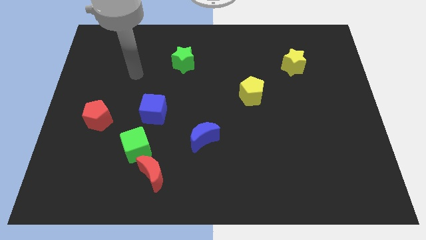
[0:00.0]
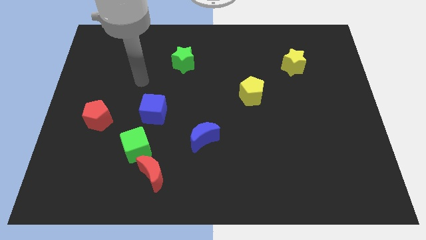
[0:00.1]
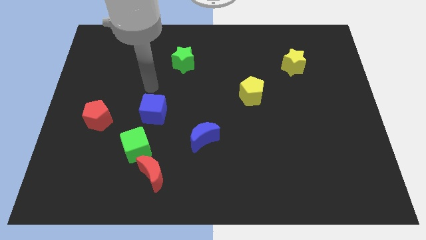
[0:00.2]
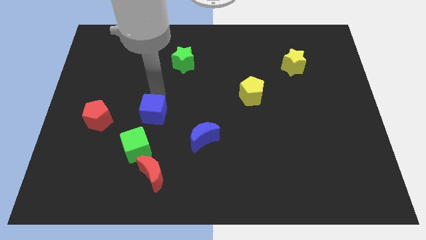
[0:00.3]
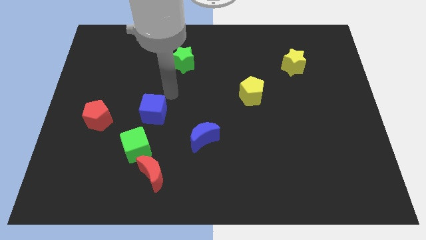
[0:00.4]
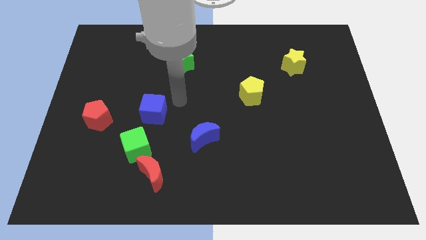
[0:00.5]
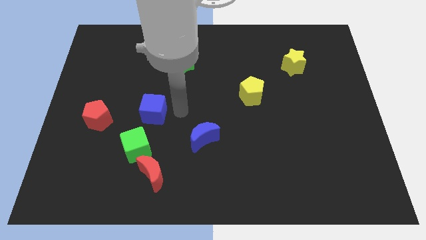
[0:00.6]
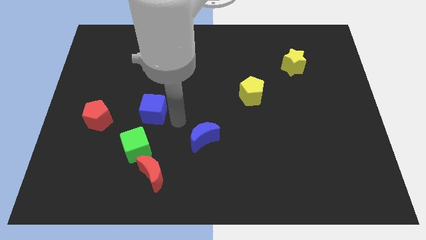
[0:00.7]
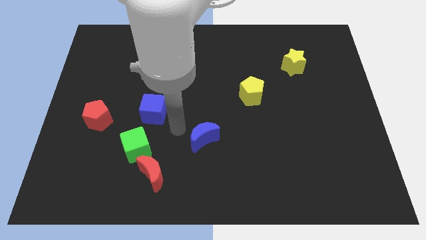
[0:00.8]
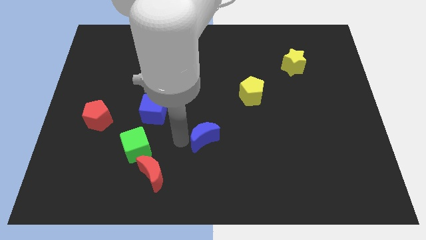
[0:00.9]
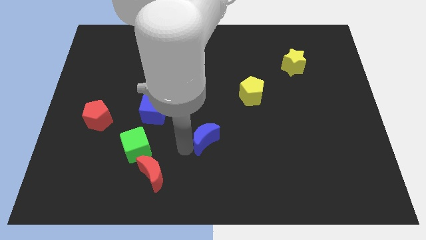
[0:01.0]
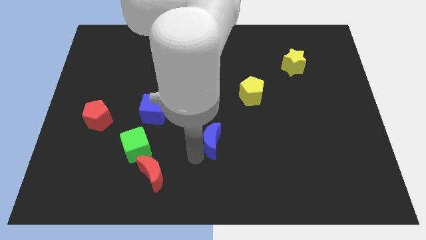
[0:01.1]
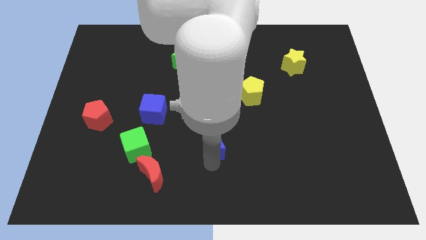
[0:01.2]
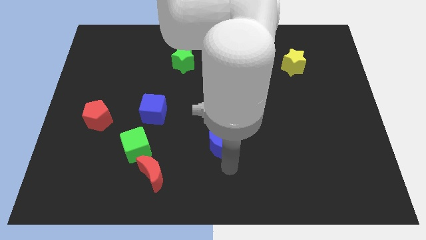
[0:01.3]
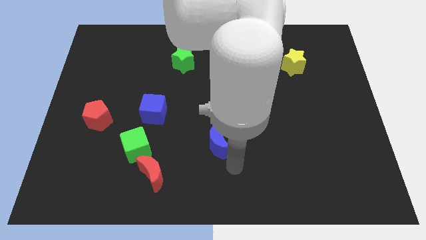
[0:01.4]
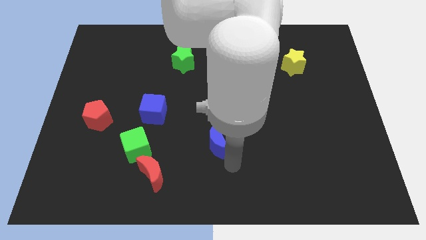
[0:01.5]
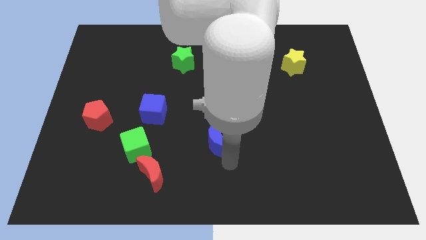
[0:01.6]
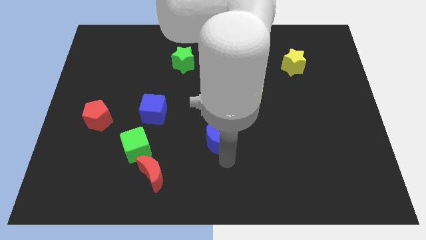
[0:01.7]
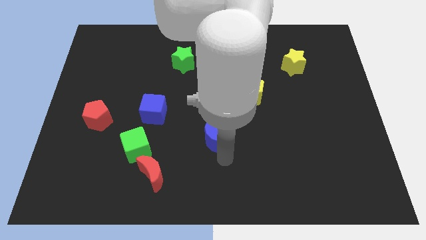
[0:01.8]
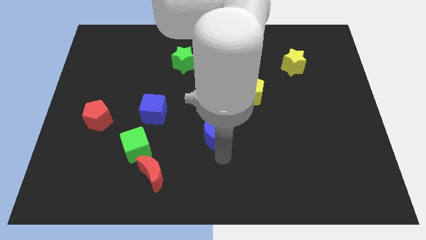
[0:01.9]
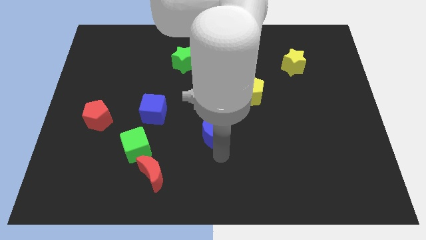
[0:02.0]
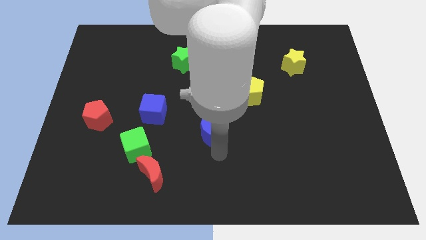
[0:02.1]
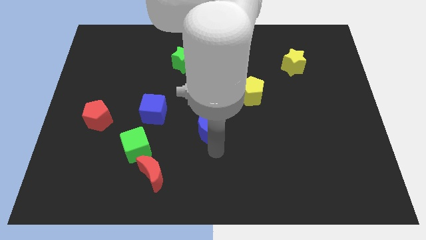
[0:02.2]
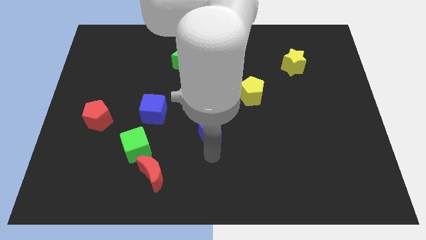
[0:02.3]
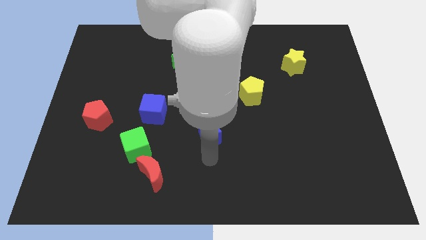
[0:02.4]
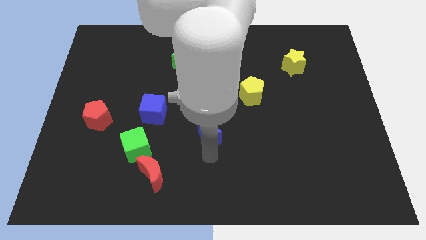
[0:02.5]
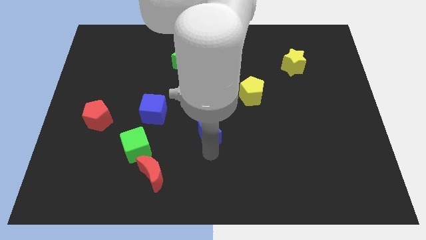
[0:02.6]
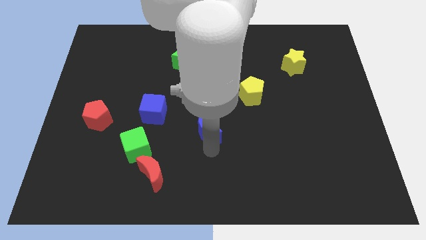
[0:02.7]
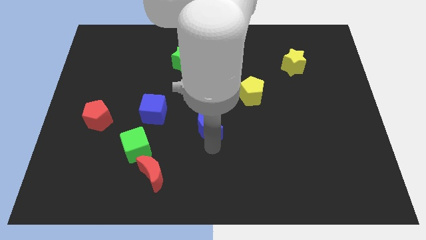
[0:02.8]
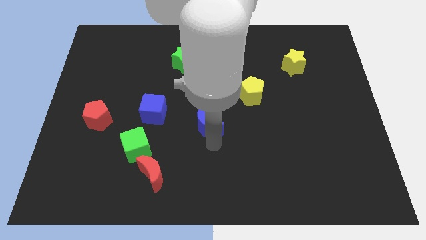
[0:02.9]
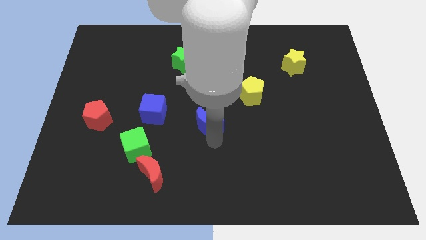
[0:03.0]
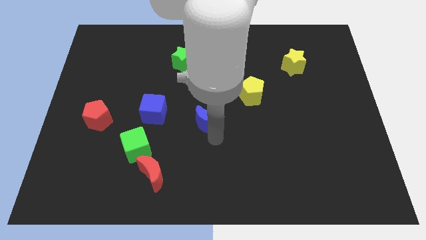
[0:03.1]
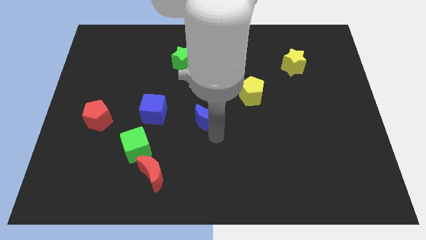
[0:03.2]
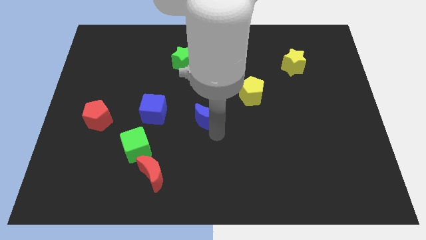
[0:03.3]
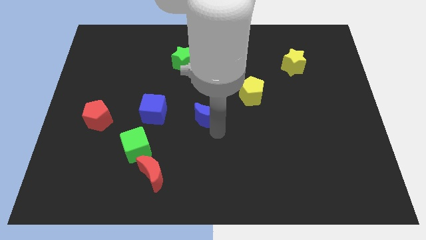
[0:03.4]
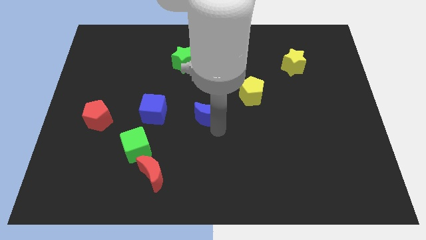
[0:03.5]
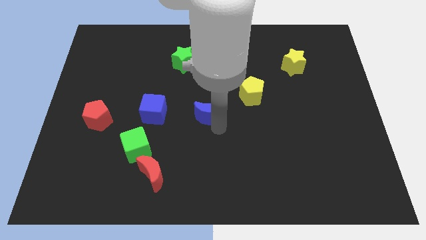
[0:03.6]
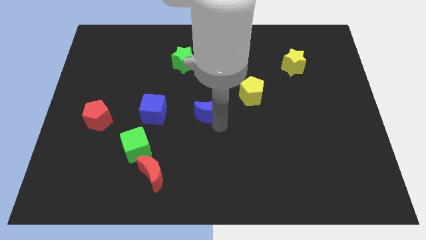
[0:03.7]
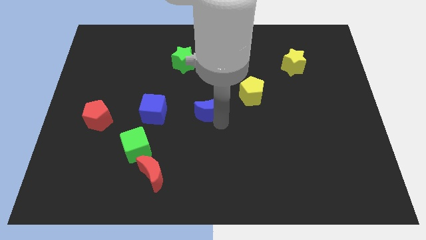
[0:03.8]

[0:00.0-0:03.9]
slide the blue moon a little bit upwards

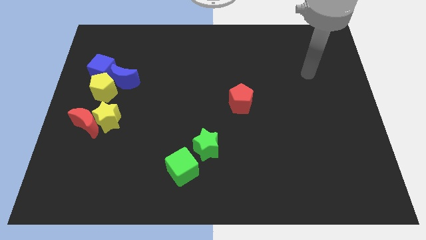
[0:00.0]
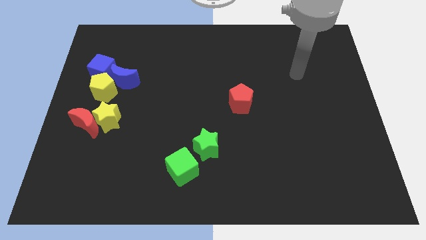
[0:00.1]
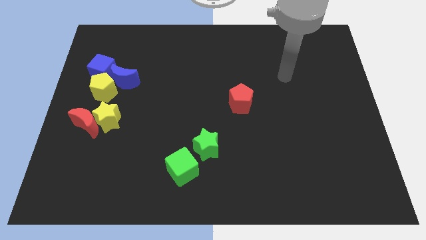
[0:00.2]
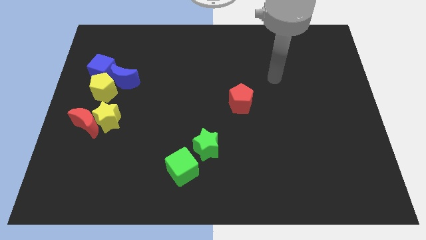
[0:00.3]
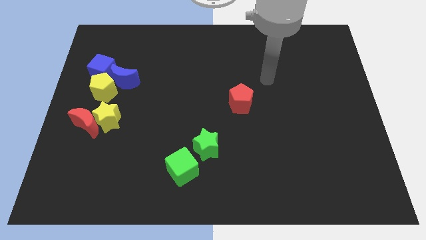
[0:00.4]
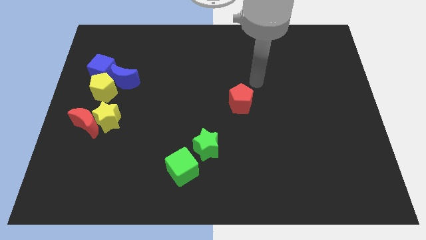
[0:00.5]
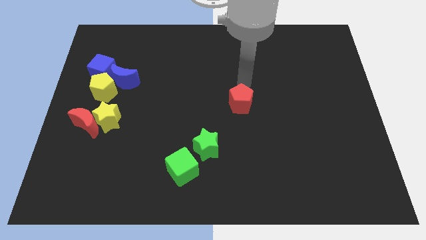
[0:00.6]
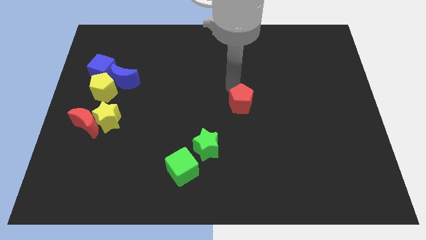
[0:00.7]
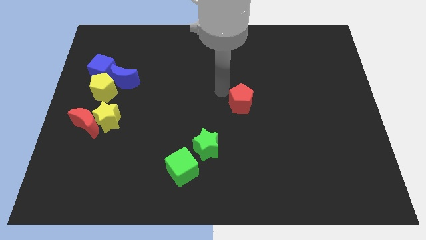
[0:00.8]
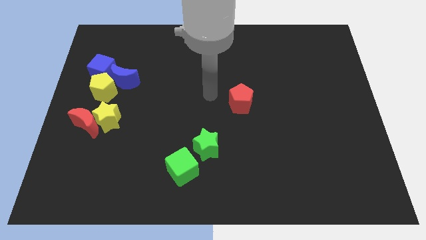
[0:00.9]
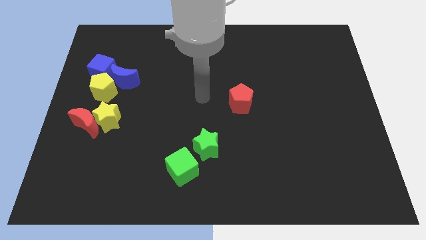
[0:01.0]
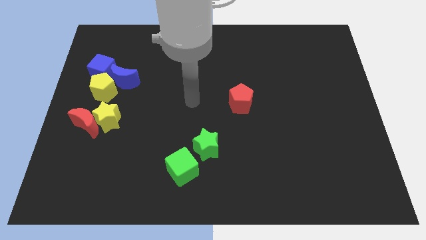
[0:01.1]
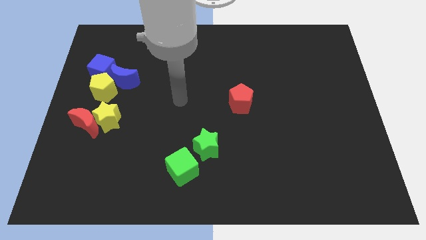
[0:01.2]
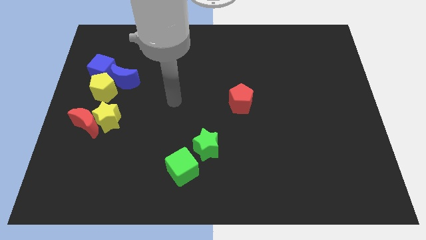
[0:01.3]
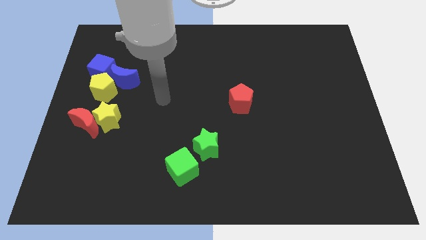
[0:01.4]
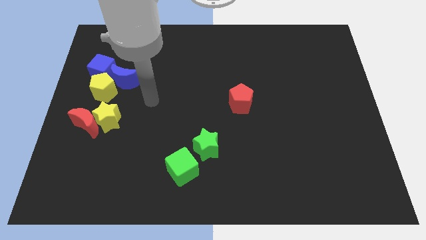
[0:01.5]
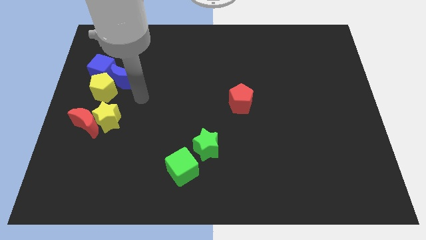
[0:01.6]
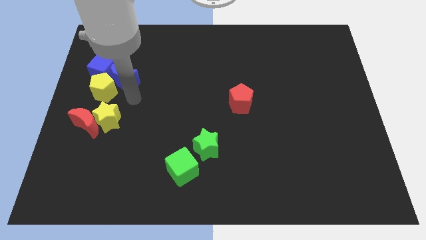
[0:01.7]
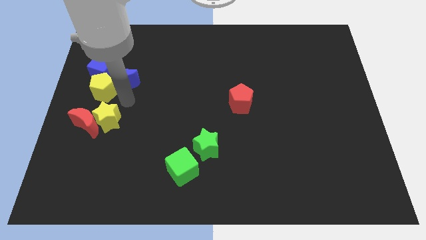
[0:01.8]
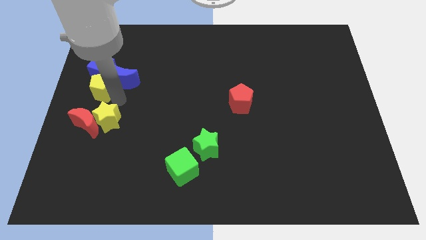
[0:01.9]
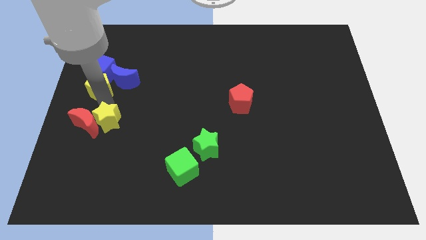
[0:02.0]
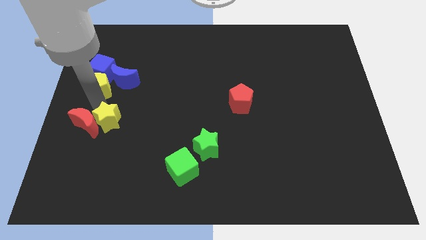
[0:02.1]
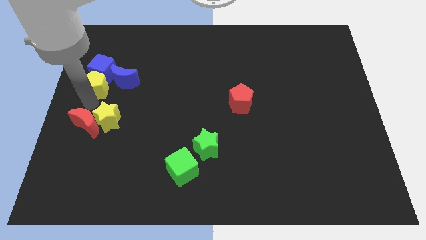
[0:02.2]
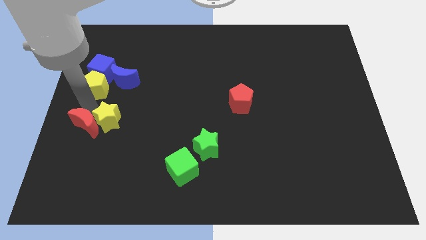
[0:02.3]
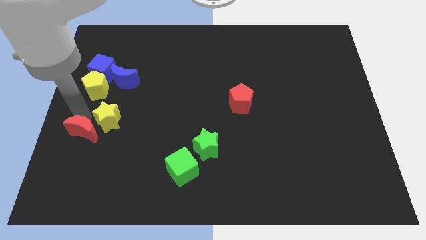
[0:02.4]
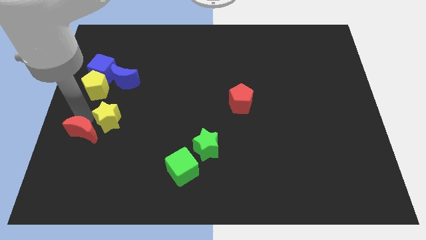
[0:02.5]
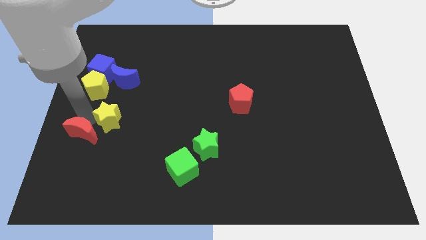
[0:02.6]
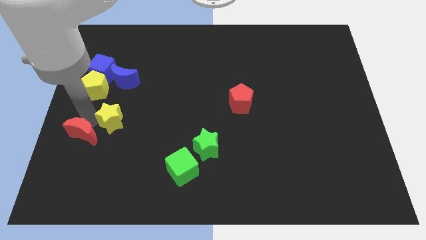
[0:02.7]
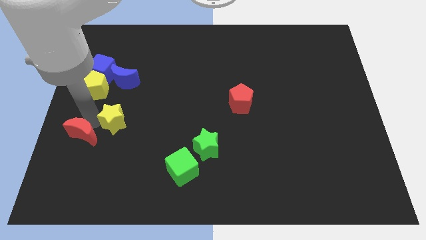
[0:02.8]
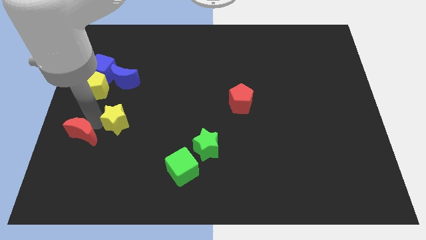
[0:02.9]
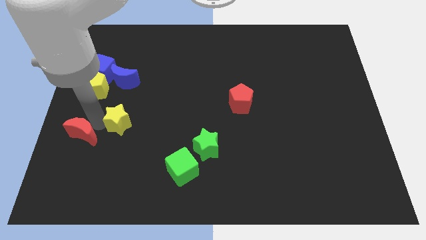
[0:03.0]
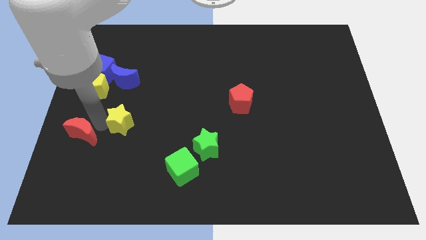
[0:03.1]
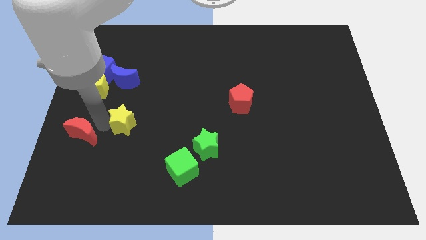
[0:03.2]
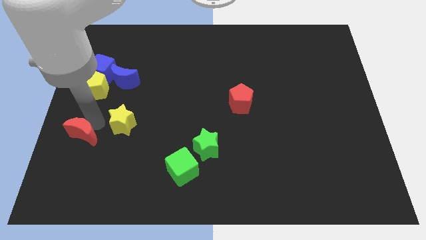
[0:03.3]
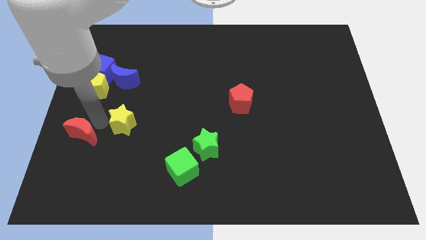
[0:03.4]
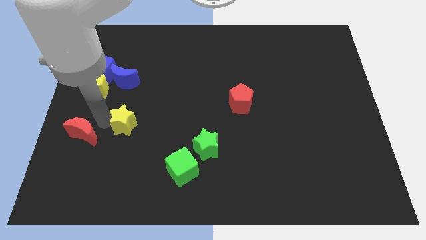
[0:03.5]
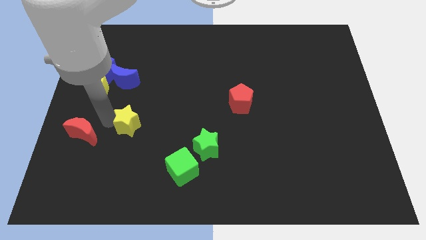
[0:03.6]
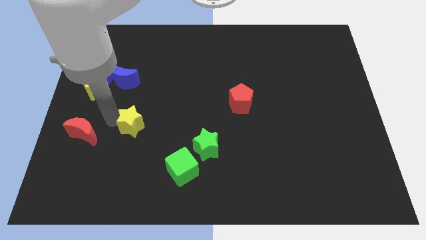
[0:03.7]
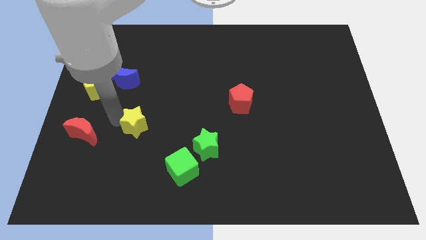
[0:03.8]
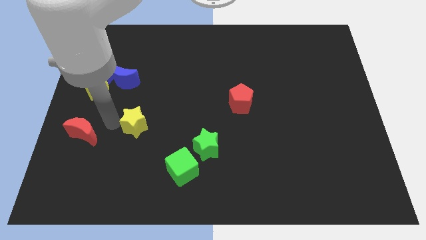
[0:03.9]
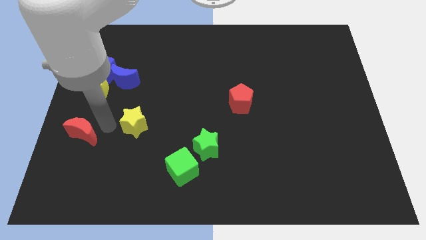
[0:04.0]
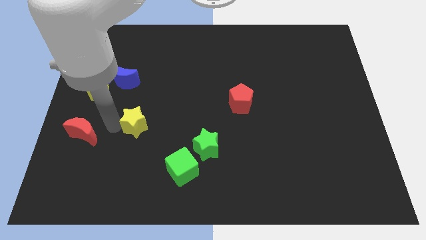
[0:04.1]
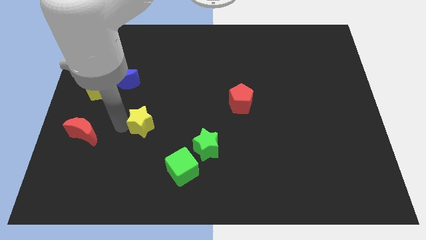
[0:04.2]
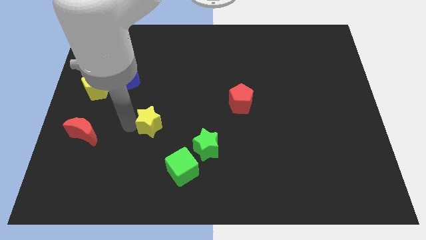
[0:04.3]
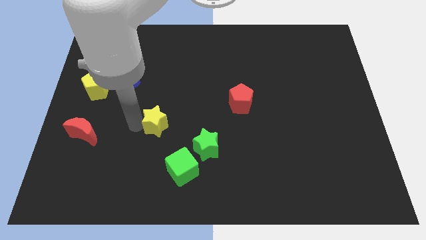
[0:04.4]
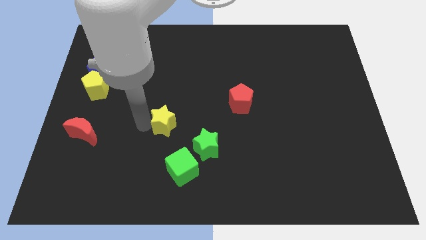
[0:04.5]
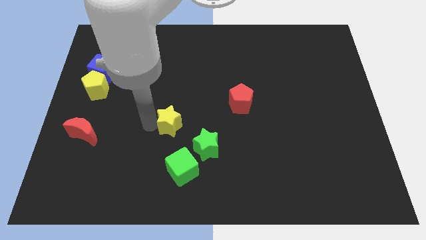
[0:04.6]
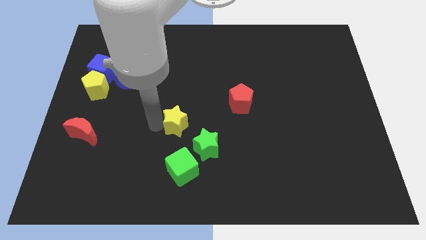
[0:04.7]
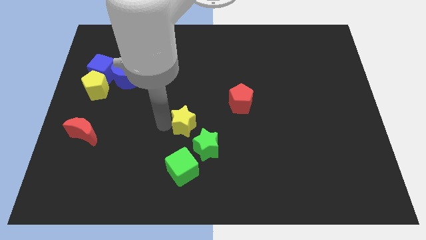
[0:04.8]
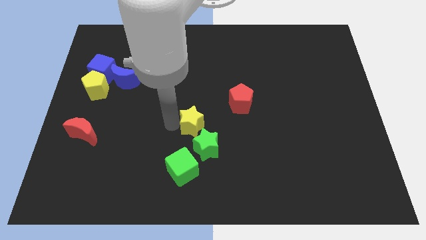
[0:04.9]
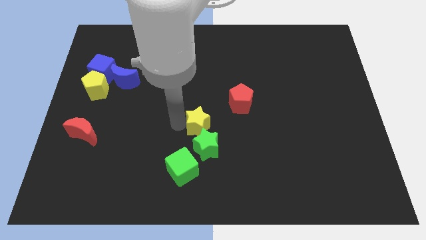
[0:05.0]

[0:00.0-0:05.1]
move the yellow star to the right
